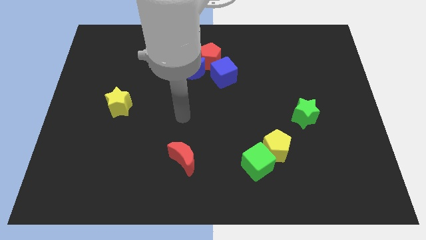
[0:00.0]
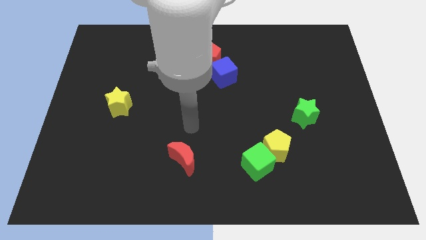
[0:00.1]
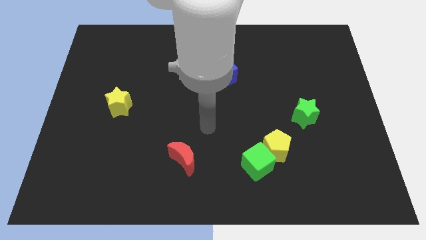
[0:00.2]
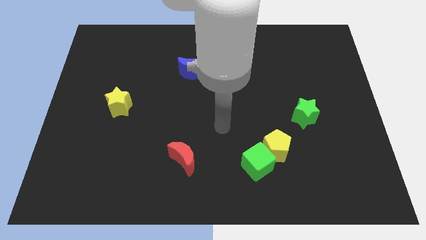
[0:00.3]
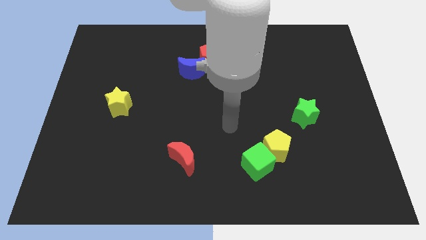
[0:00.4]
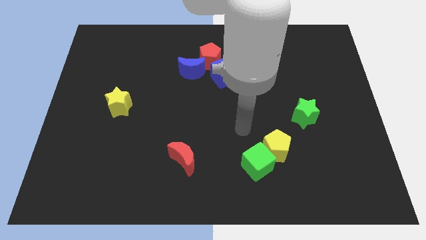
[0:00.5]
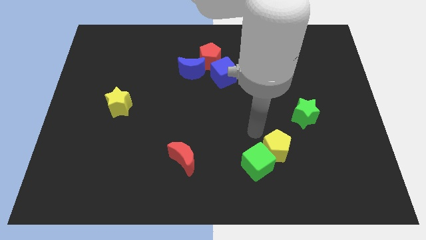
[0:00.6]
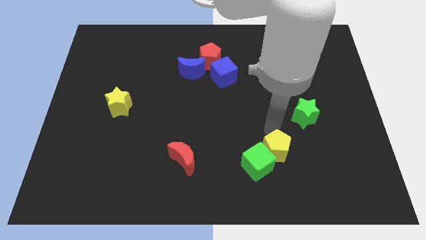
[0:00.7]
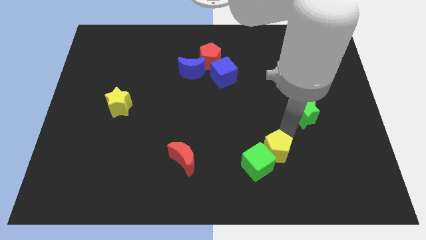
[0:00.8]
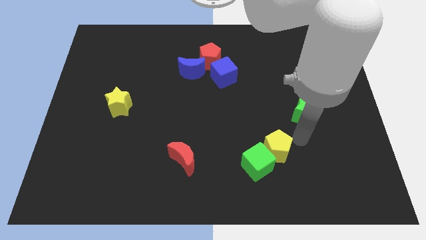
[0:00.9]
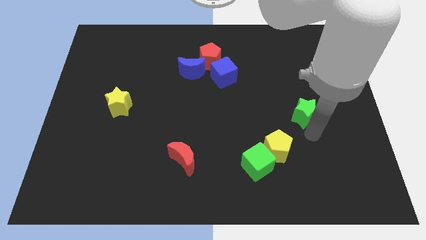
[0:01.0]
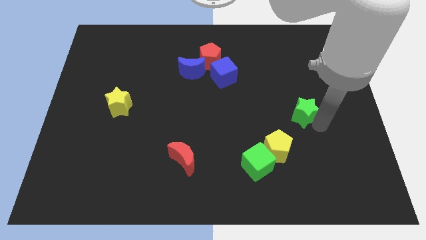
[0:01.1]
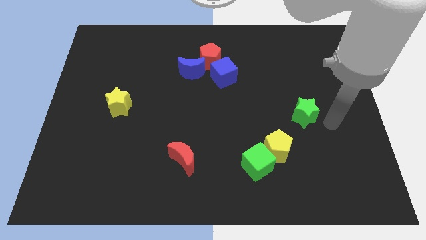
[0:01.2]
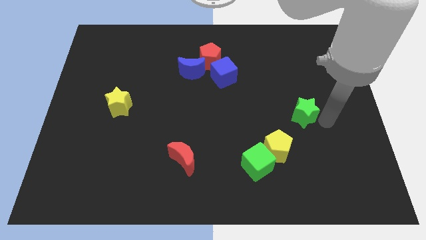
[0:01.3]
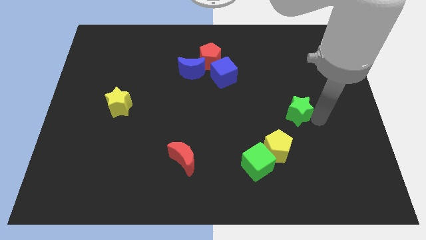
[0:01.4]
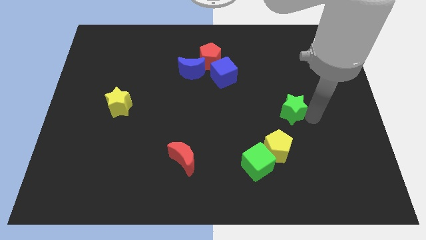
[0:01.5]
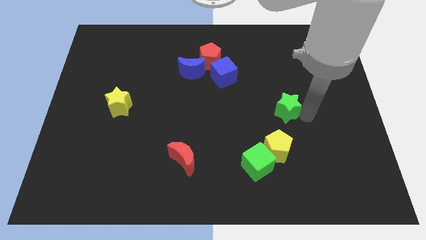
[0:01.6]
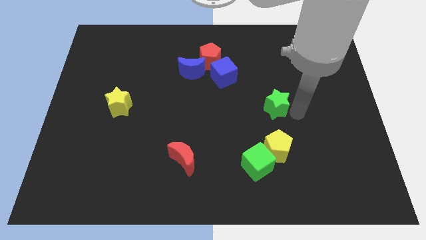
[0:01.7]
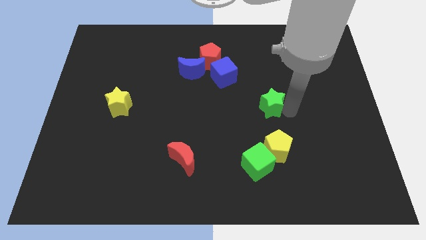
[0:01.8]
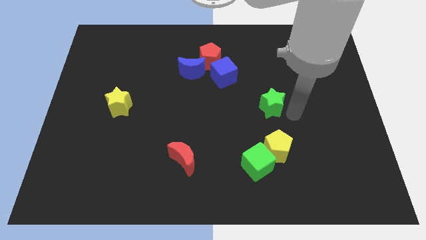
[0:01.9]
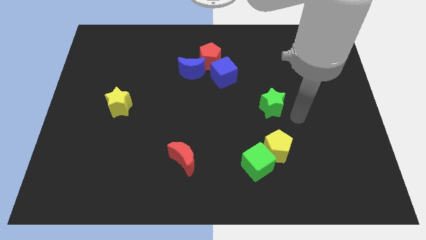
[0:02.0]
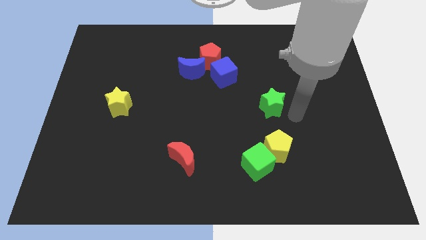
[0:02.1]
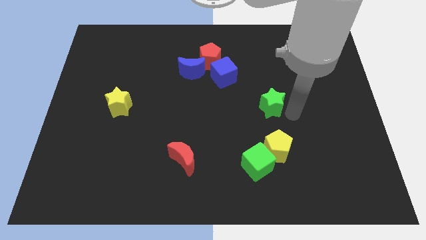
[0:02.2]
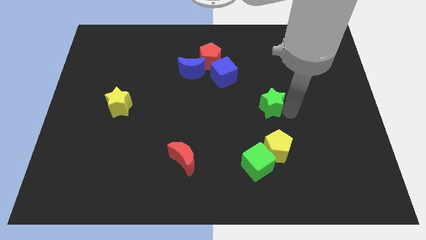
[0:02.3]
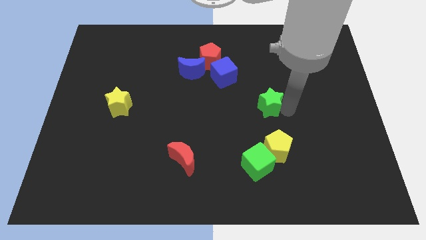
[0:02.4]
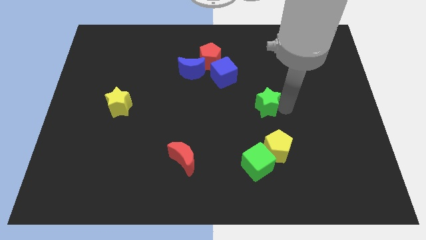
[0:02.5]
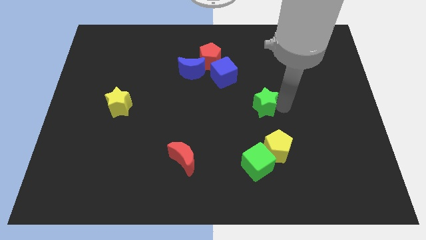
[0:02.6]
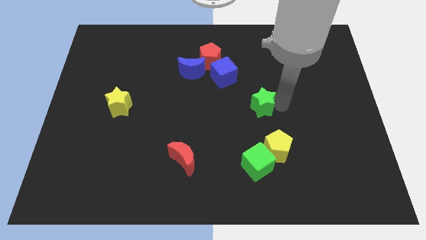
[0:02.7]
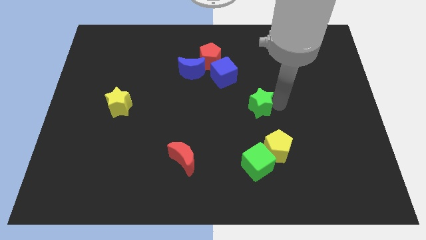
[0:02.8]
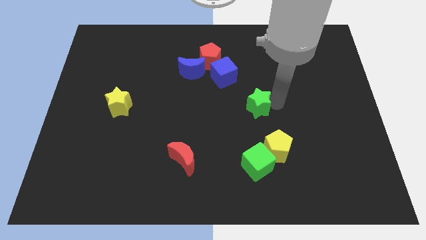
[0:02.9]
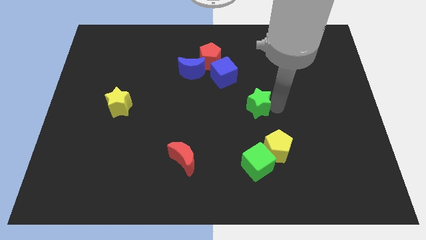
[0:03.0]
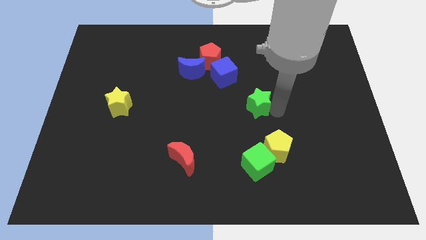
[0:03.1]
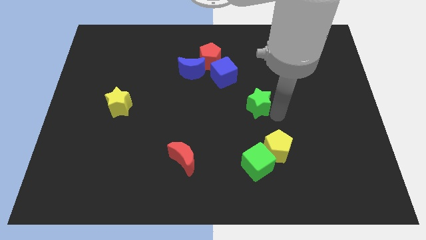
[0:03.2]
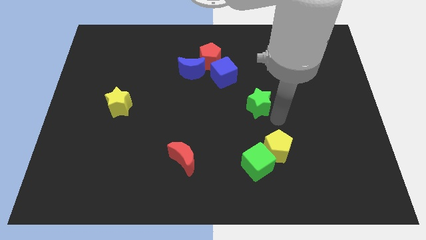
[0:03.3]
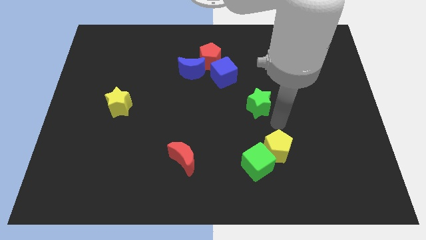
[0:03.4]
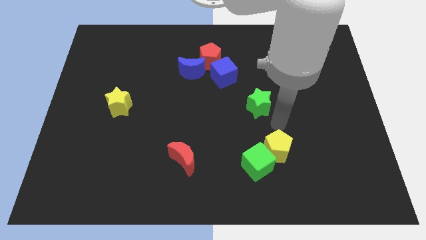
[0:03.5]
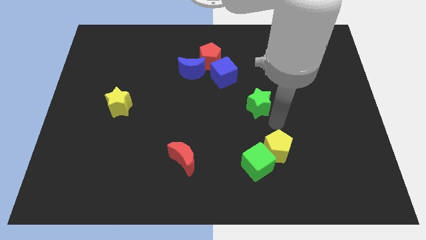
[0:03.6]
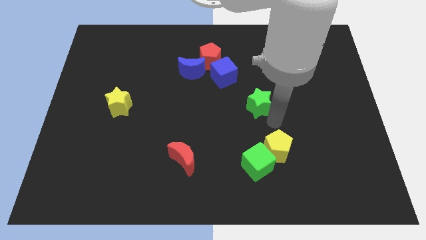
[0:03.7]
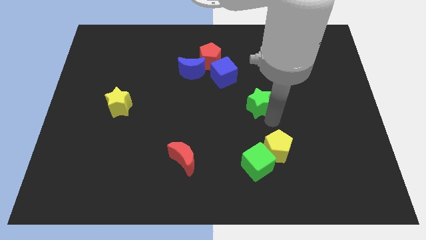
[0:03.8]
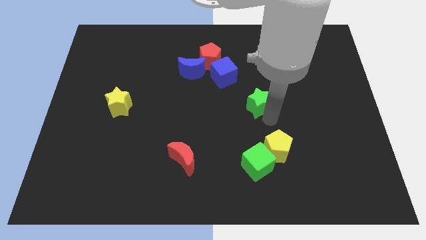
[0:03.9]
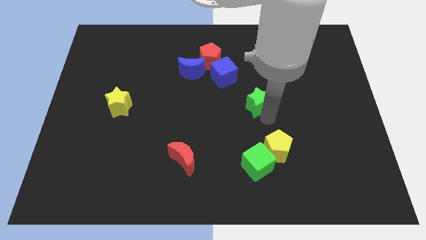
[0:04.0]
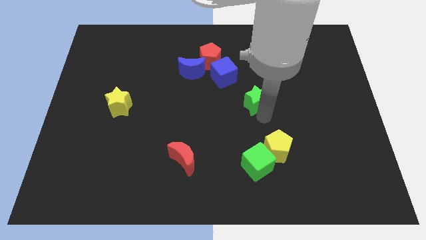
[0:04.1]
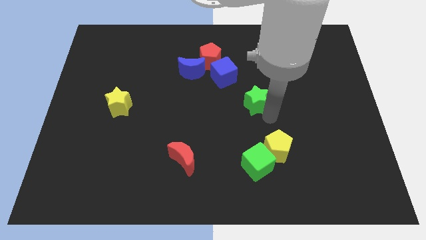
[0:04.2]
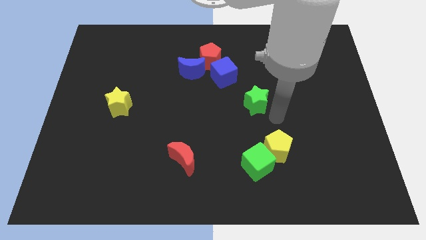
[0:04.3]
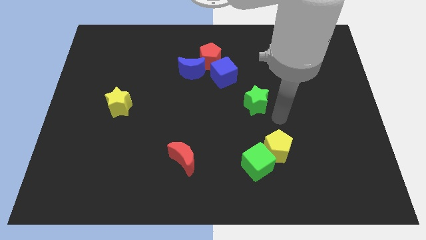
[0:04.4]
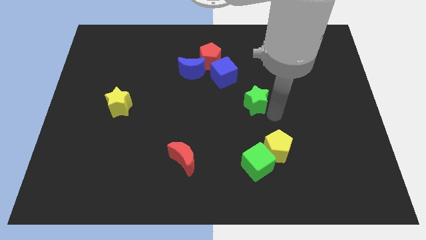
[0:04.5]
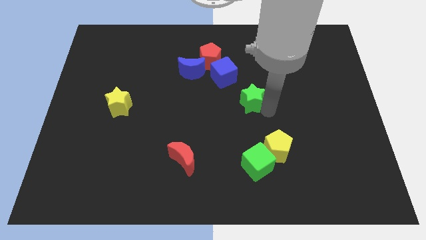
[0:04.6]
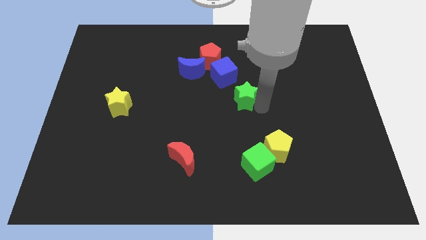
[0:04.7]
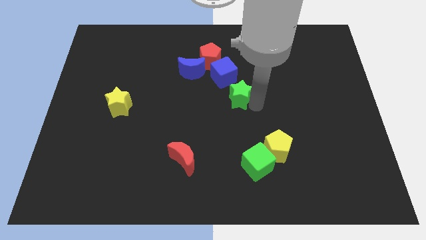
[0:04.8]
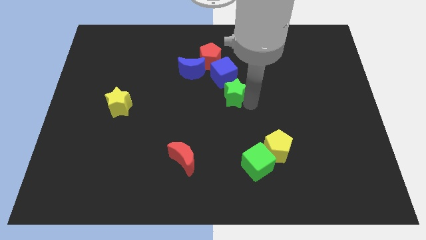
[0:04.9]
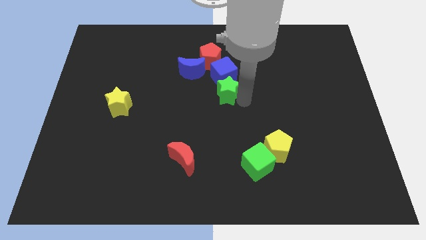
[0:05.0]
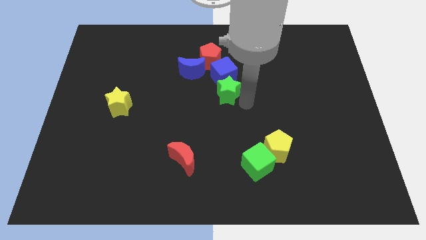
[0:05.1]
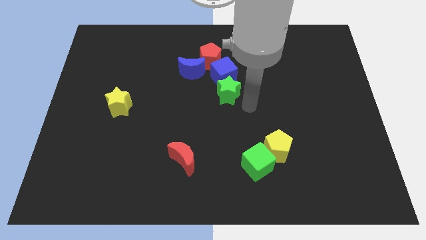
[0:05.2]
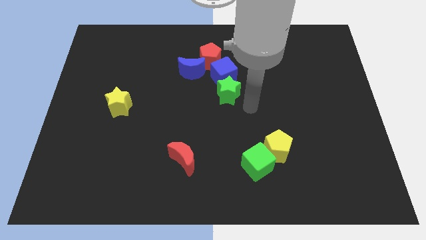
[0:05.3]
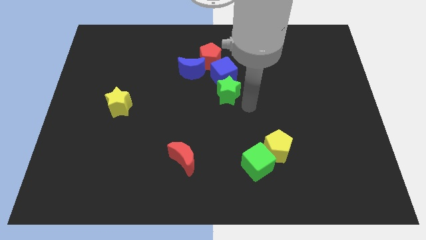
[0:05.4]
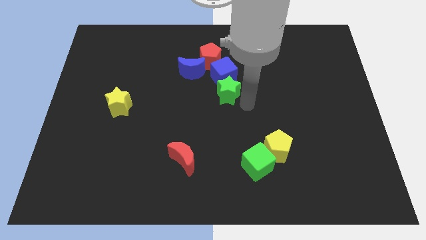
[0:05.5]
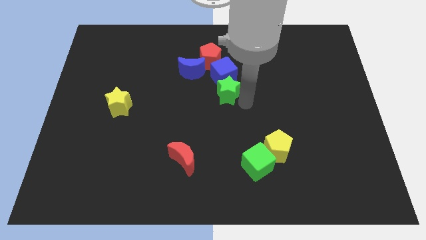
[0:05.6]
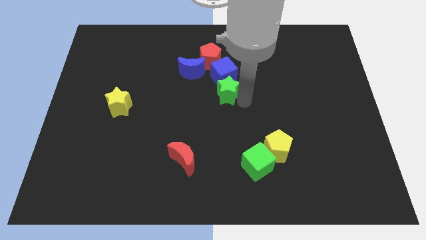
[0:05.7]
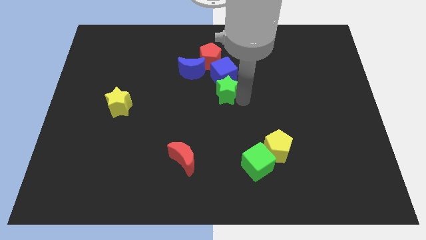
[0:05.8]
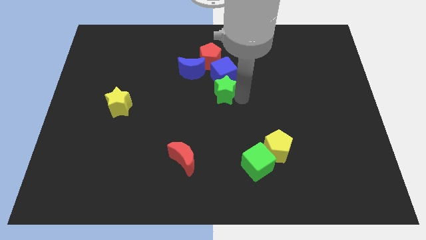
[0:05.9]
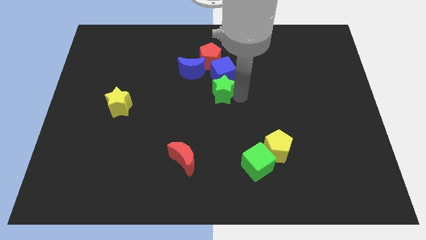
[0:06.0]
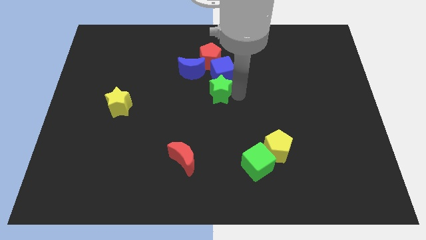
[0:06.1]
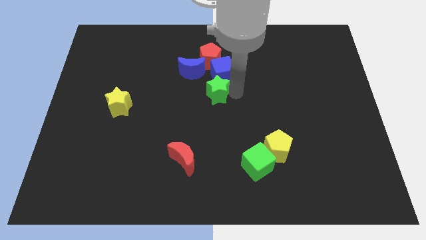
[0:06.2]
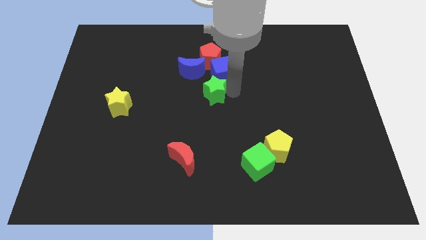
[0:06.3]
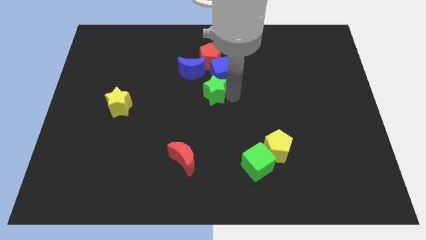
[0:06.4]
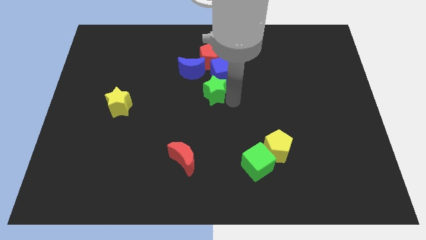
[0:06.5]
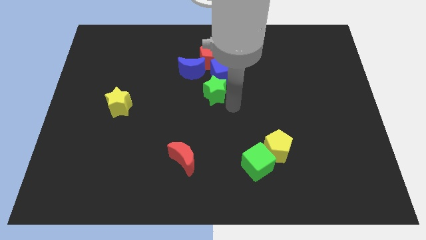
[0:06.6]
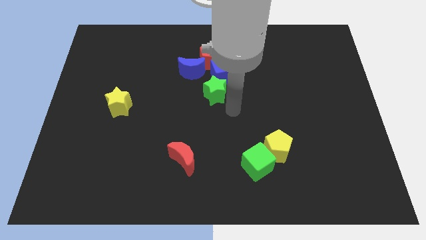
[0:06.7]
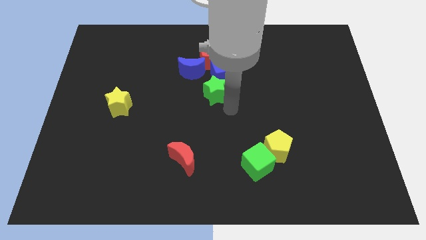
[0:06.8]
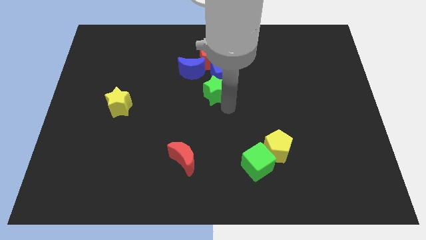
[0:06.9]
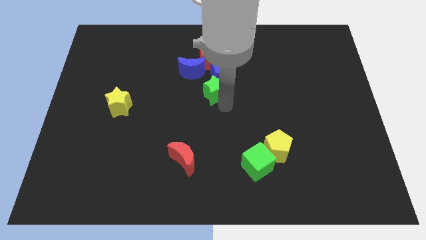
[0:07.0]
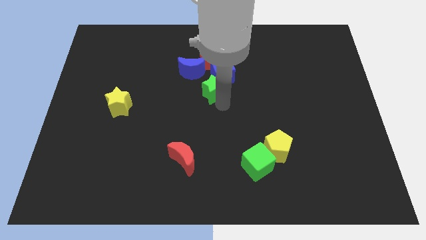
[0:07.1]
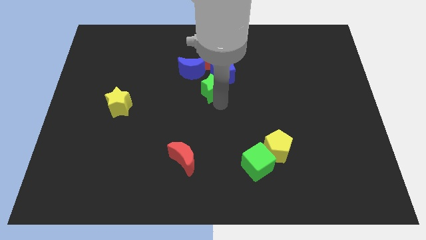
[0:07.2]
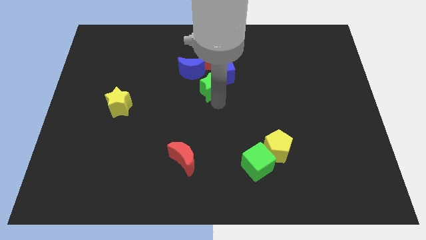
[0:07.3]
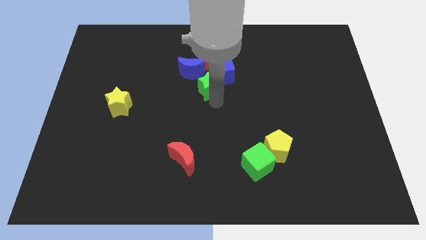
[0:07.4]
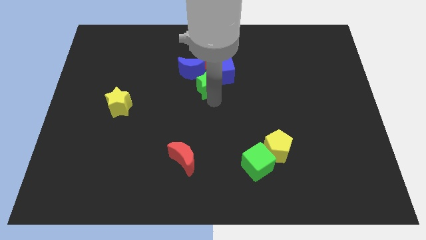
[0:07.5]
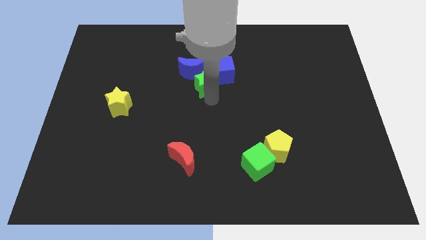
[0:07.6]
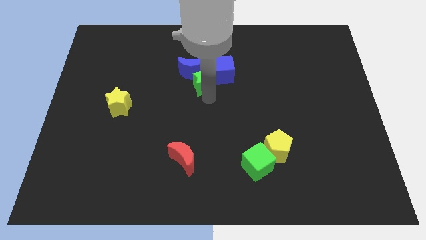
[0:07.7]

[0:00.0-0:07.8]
move the green star towards the blue moon
